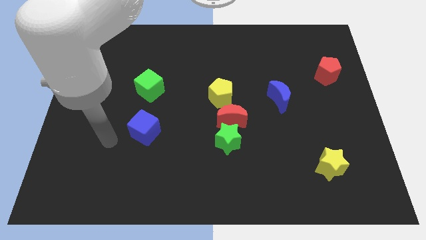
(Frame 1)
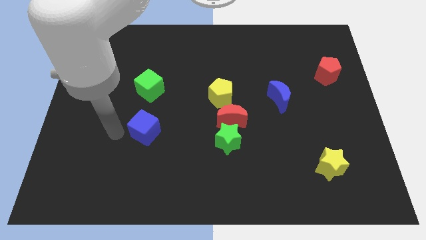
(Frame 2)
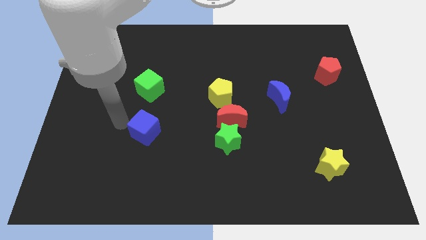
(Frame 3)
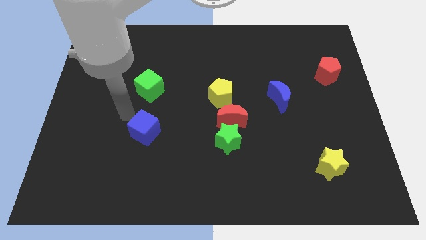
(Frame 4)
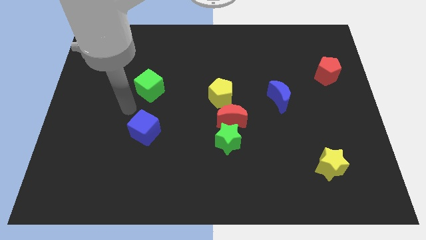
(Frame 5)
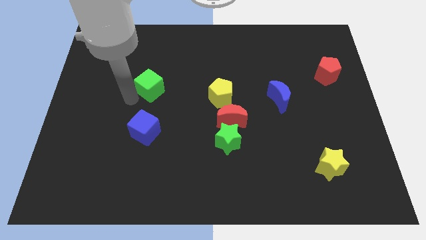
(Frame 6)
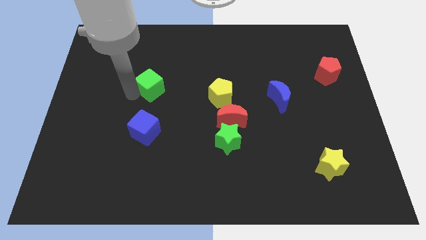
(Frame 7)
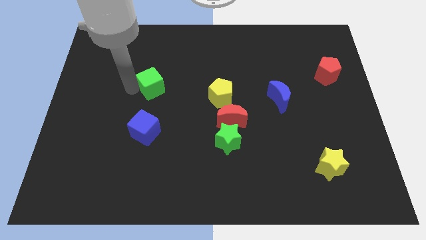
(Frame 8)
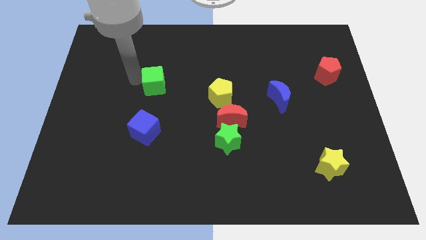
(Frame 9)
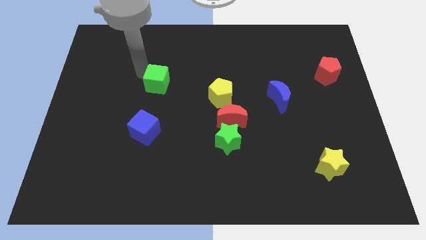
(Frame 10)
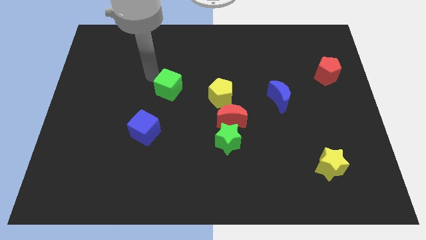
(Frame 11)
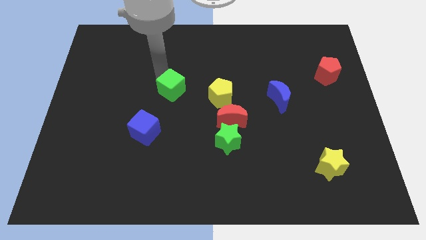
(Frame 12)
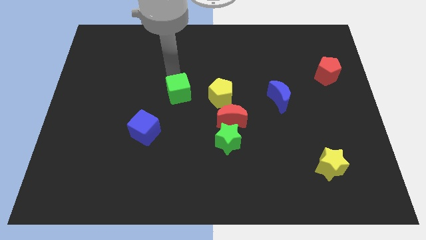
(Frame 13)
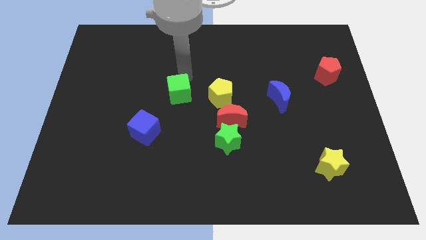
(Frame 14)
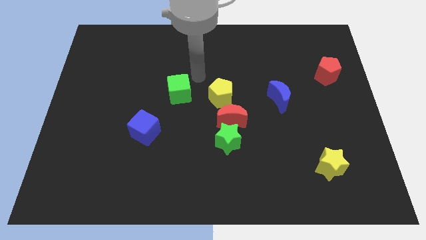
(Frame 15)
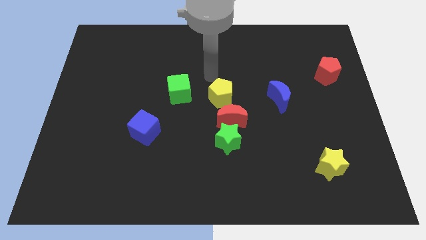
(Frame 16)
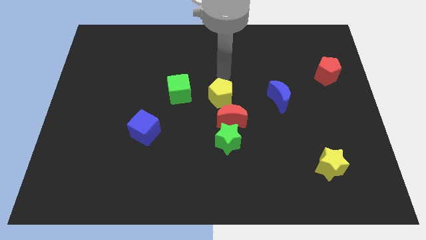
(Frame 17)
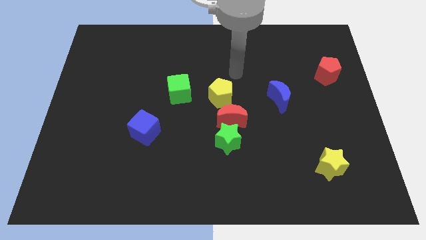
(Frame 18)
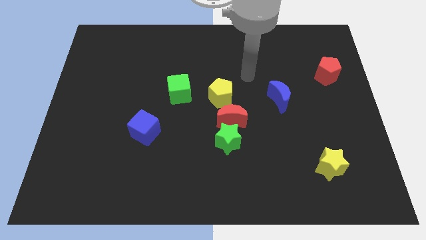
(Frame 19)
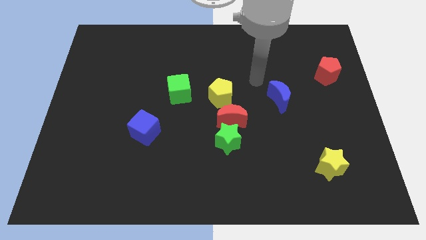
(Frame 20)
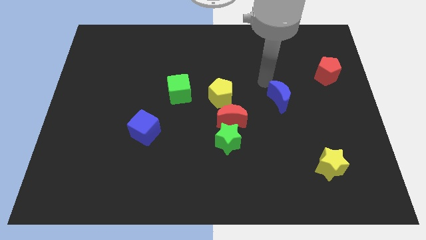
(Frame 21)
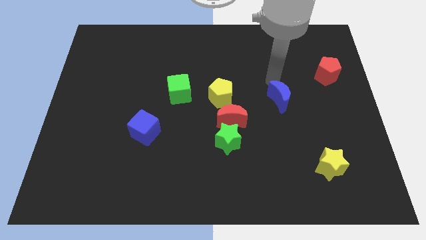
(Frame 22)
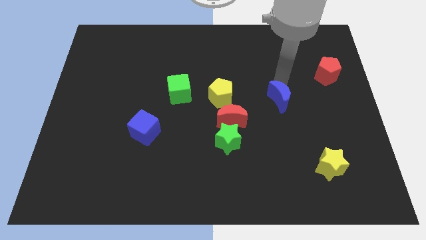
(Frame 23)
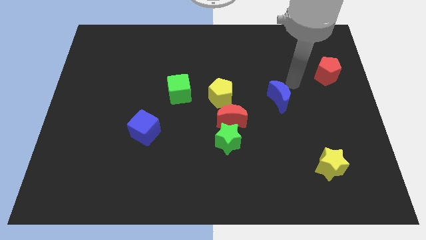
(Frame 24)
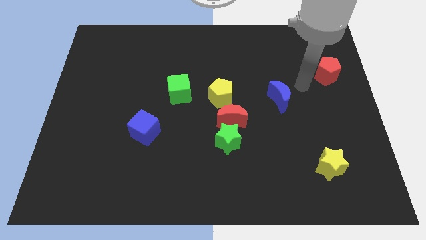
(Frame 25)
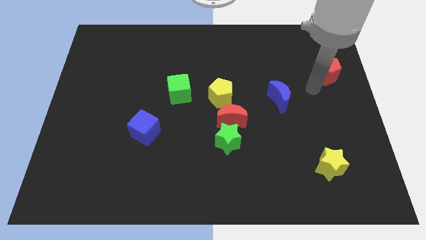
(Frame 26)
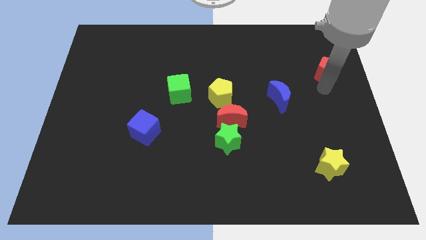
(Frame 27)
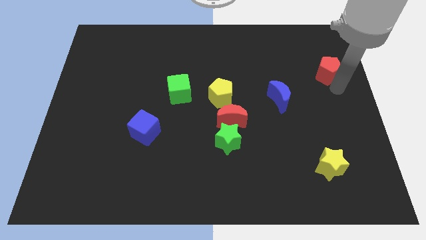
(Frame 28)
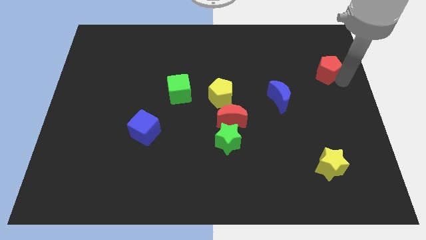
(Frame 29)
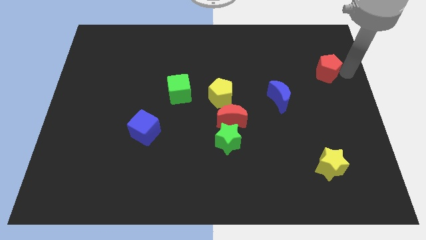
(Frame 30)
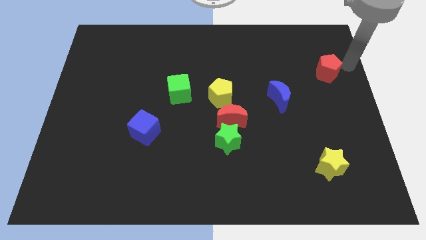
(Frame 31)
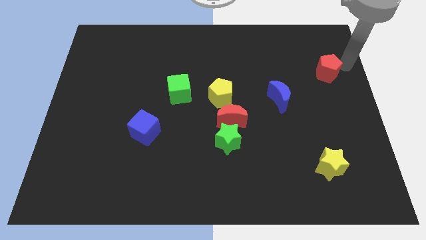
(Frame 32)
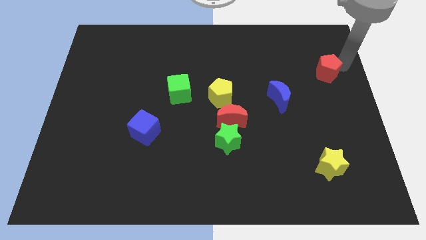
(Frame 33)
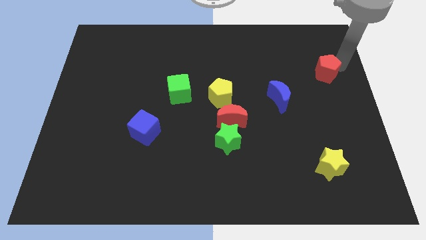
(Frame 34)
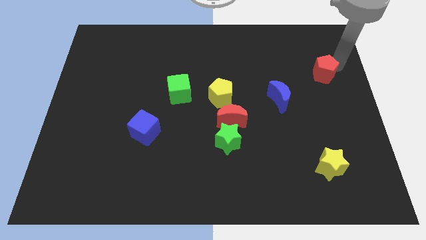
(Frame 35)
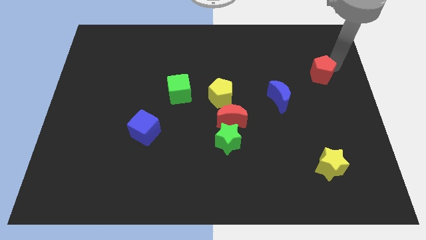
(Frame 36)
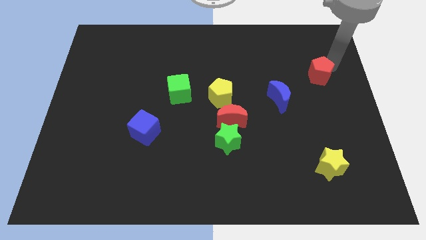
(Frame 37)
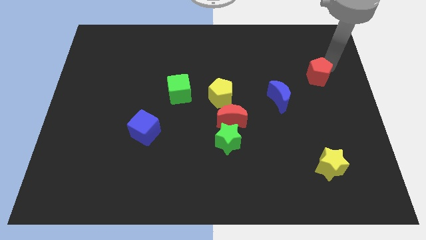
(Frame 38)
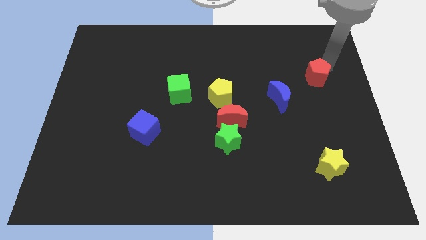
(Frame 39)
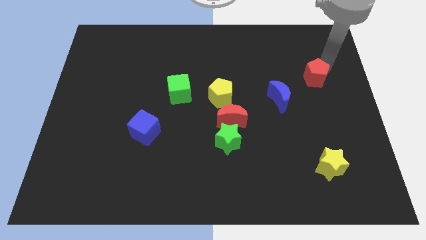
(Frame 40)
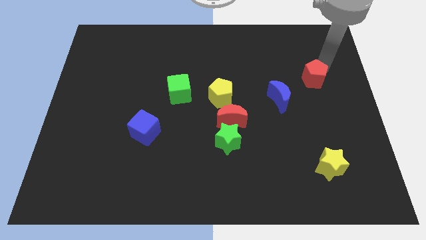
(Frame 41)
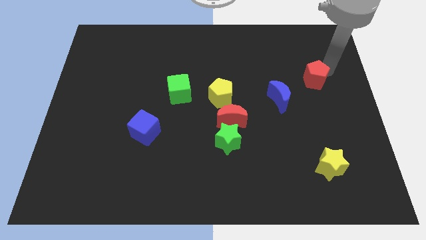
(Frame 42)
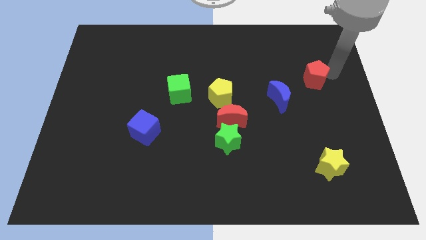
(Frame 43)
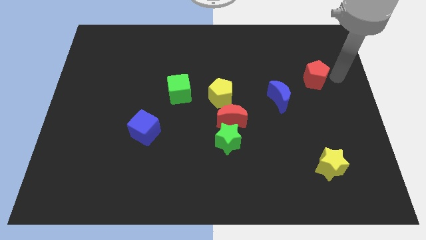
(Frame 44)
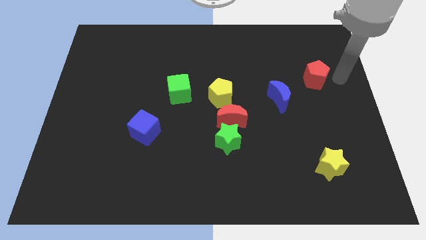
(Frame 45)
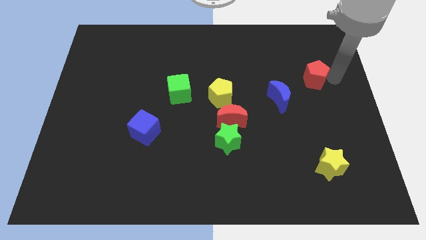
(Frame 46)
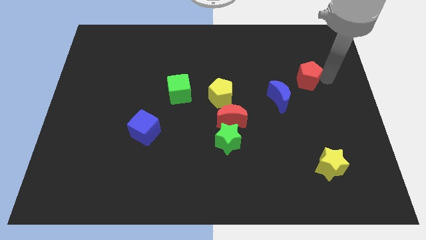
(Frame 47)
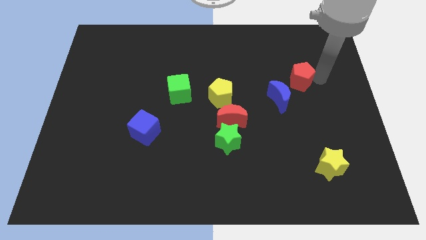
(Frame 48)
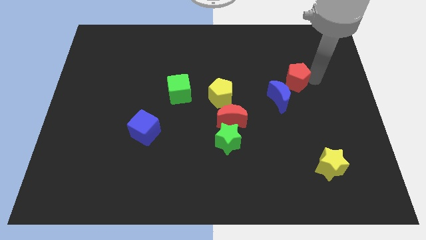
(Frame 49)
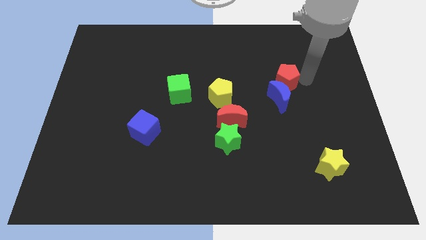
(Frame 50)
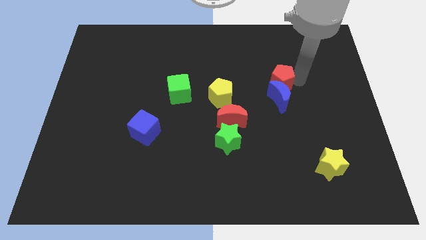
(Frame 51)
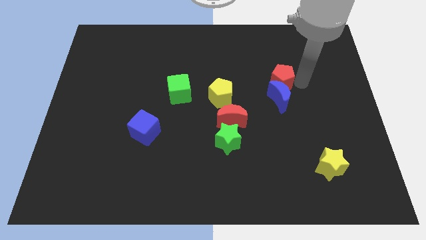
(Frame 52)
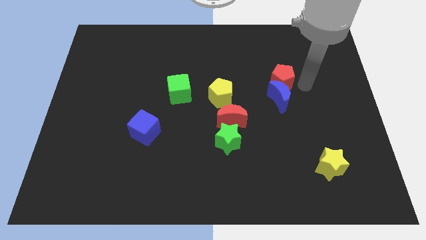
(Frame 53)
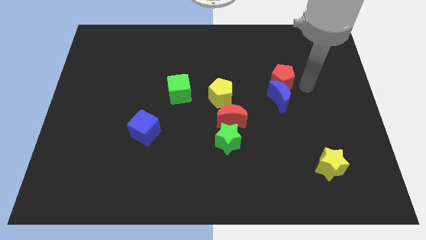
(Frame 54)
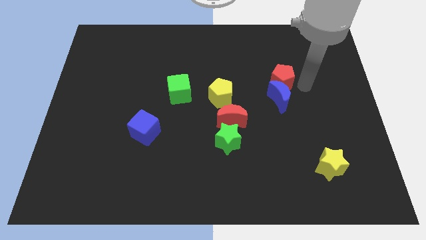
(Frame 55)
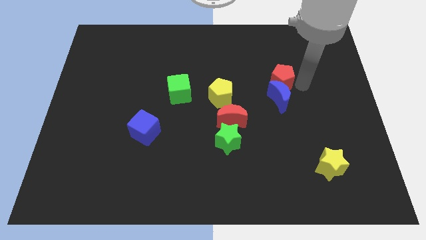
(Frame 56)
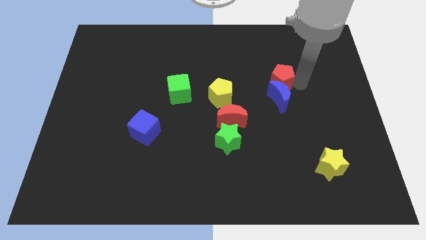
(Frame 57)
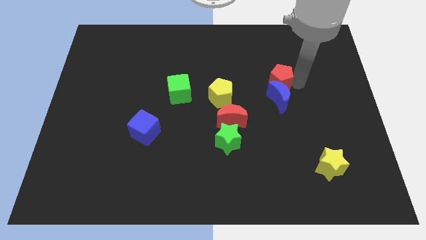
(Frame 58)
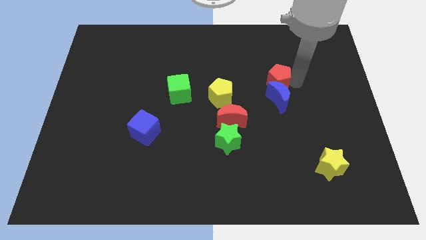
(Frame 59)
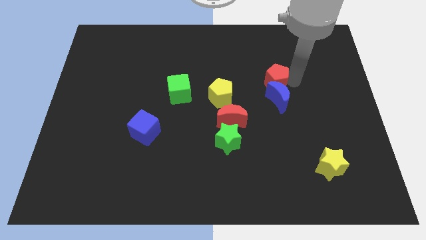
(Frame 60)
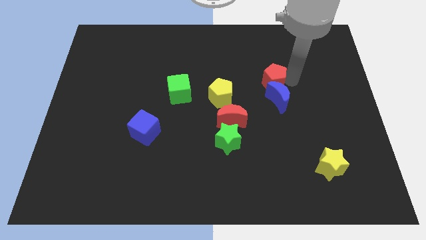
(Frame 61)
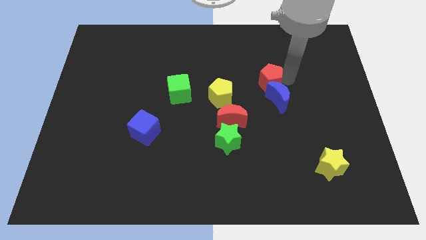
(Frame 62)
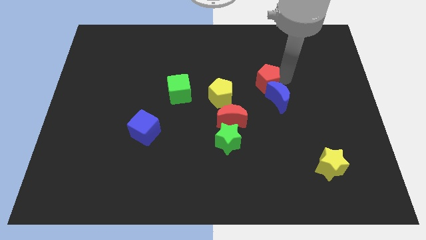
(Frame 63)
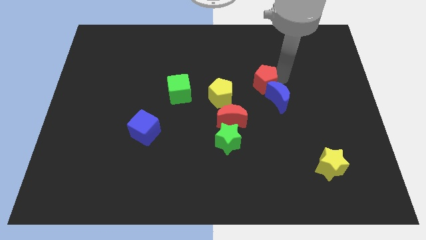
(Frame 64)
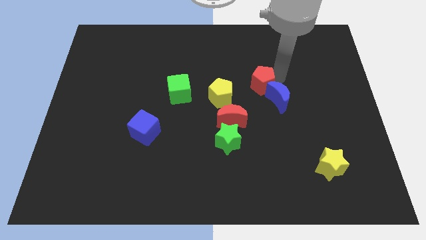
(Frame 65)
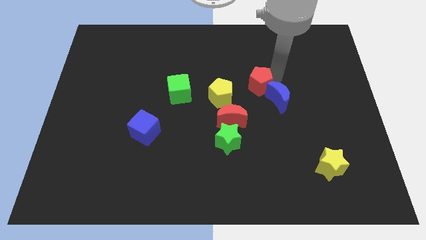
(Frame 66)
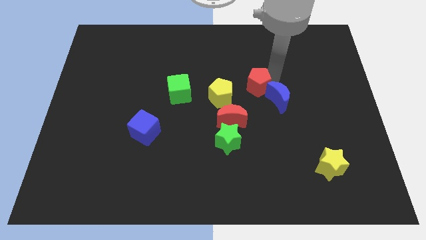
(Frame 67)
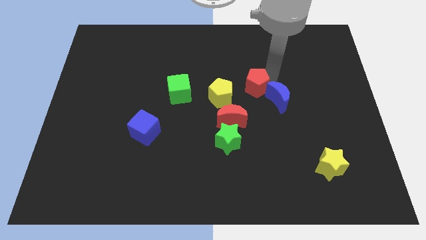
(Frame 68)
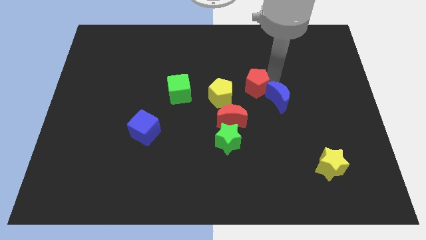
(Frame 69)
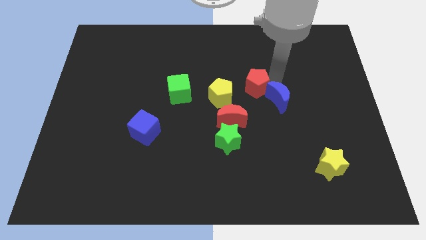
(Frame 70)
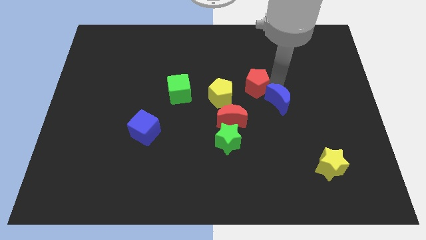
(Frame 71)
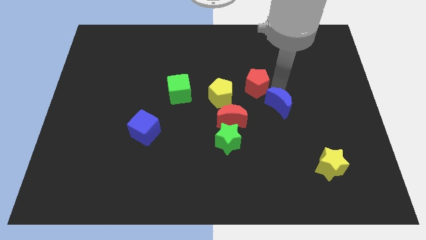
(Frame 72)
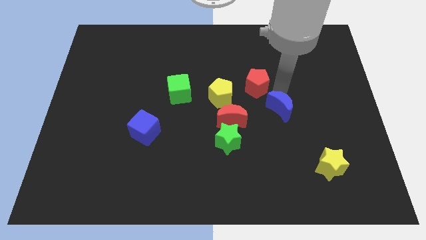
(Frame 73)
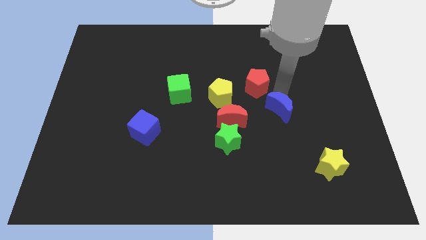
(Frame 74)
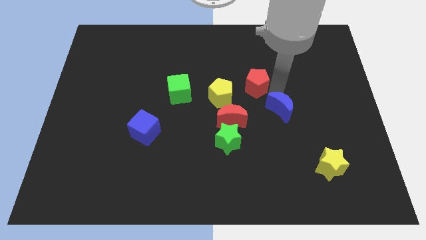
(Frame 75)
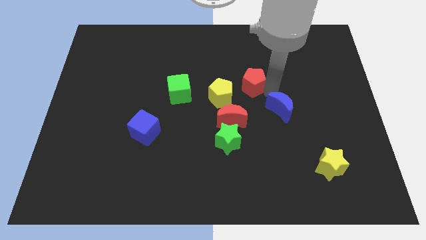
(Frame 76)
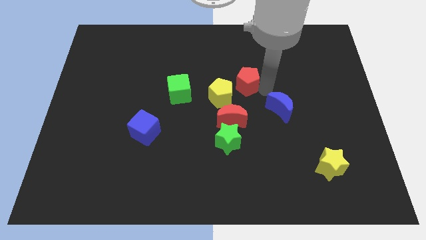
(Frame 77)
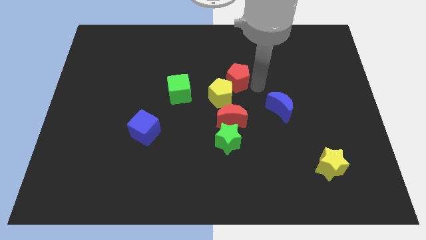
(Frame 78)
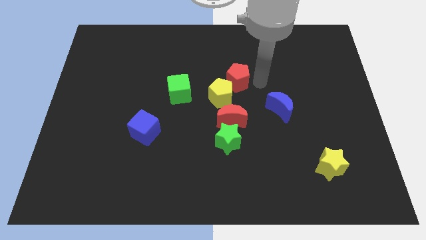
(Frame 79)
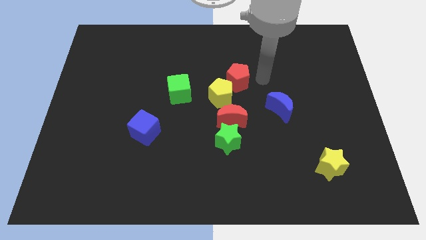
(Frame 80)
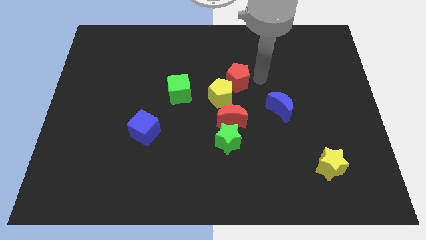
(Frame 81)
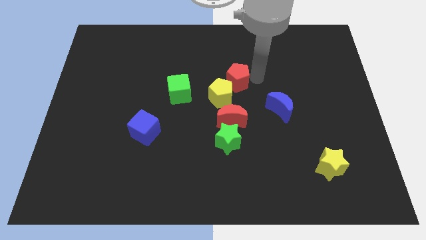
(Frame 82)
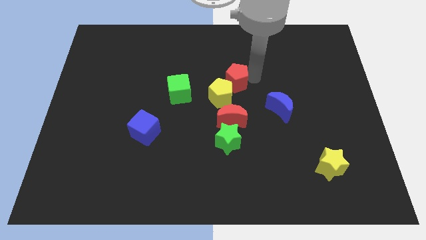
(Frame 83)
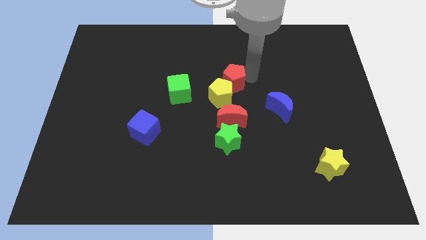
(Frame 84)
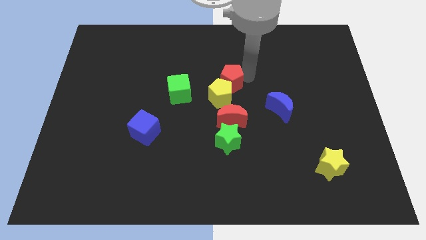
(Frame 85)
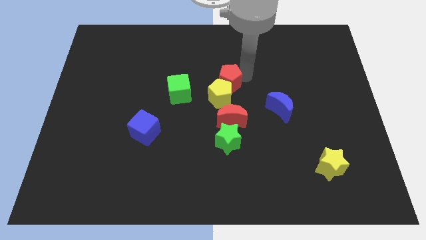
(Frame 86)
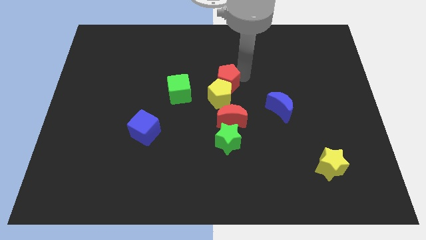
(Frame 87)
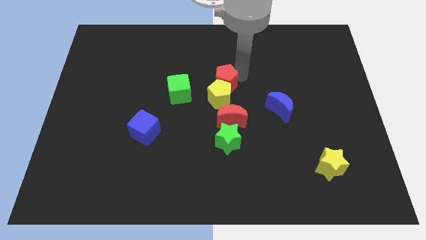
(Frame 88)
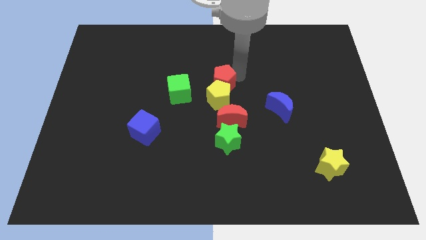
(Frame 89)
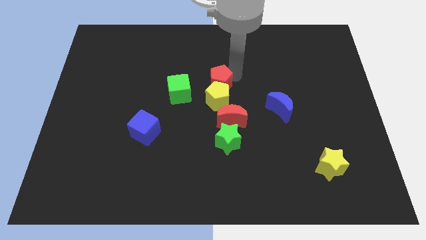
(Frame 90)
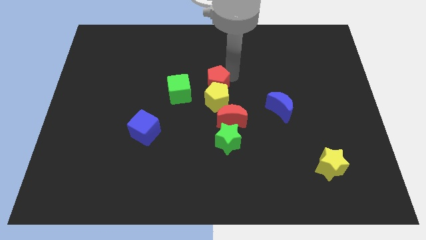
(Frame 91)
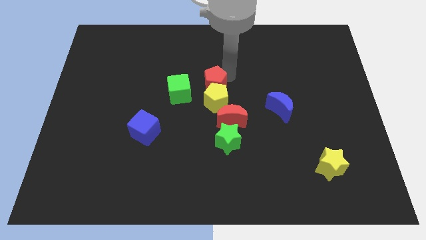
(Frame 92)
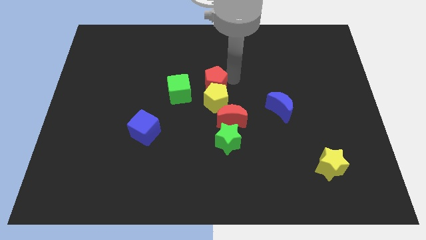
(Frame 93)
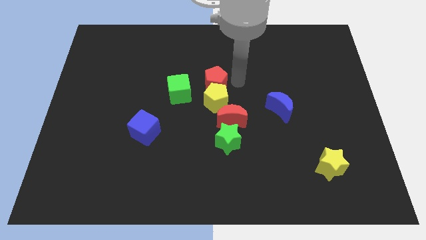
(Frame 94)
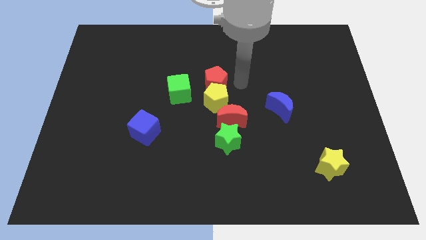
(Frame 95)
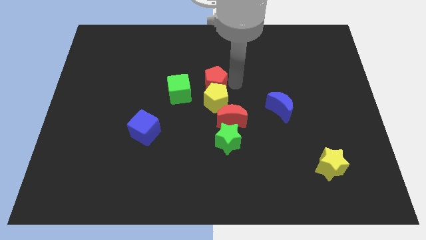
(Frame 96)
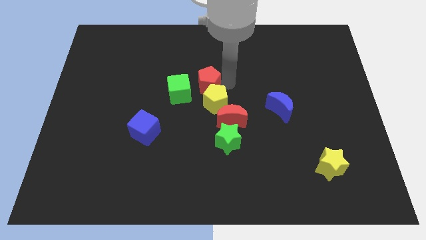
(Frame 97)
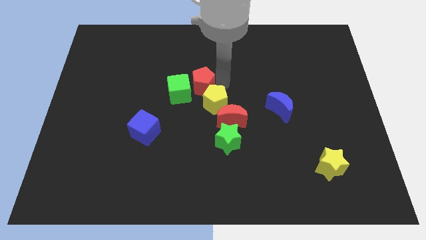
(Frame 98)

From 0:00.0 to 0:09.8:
put the red pentagon close to the green cube
